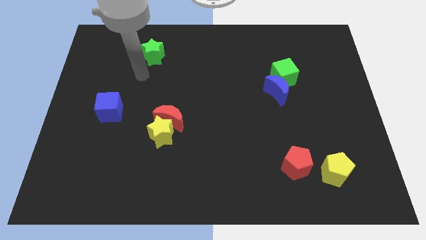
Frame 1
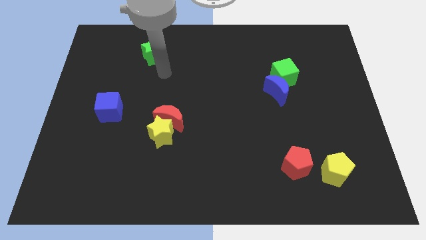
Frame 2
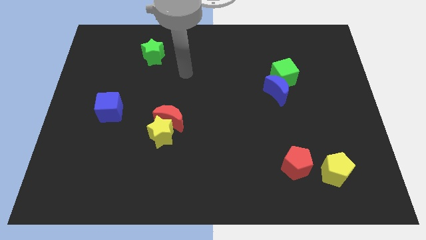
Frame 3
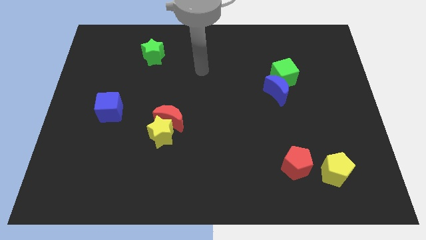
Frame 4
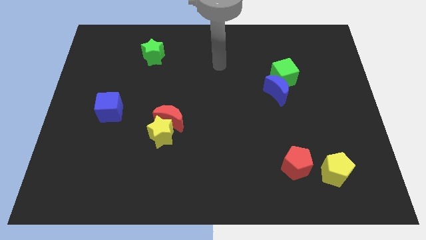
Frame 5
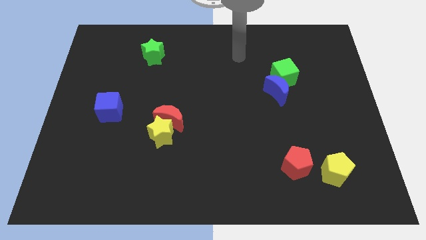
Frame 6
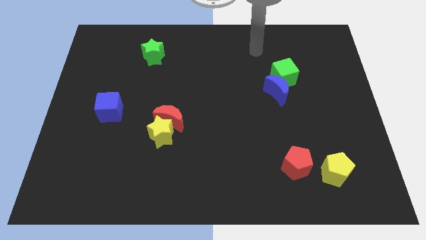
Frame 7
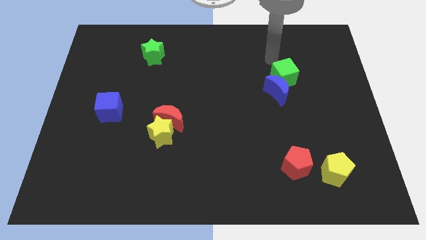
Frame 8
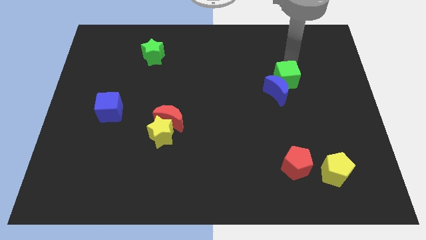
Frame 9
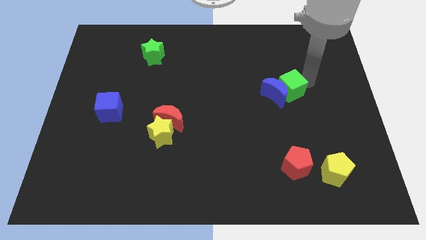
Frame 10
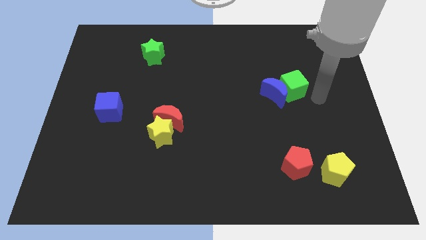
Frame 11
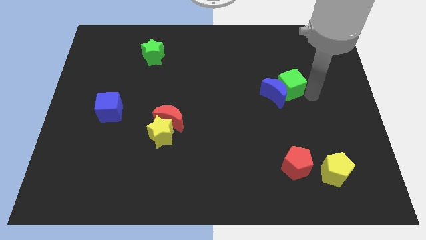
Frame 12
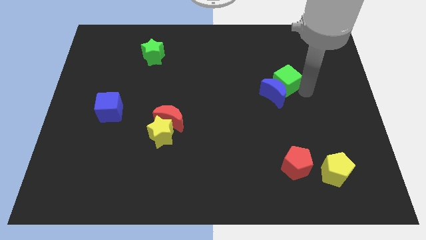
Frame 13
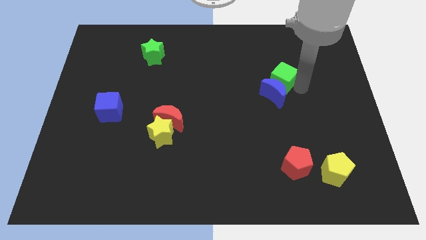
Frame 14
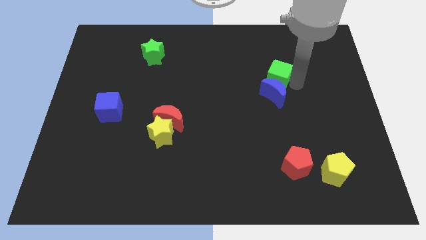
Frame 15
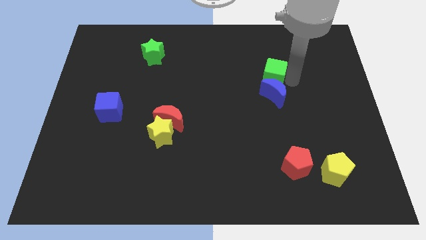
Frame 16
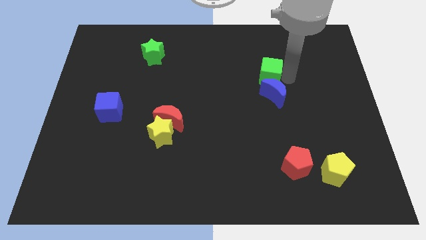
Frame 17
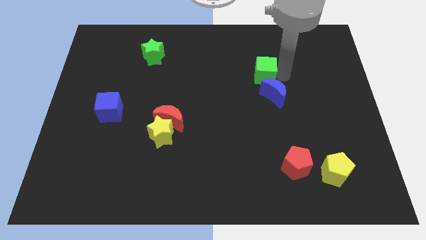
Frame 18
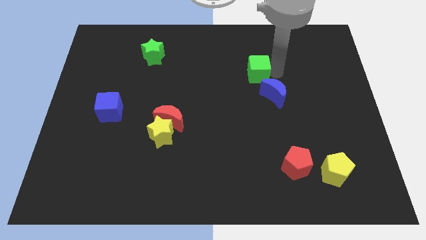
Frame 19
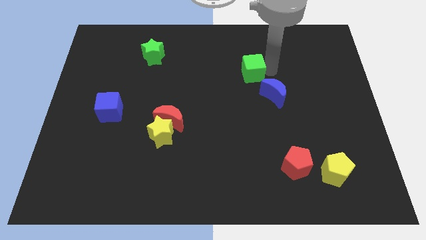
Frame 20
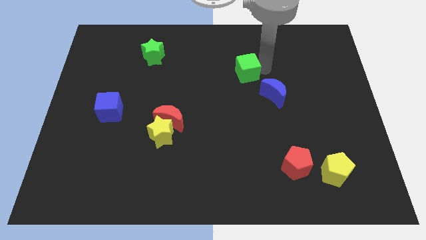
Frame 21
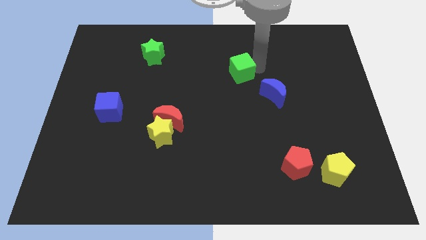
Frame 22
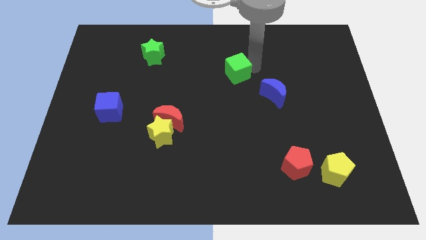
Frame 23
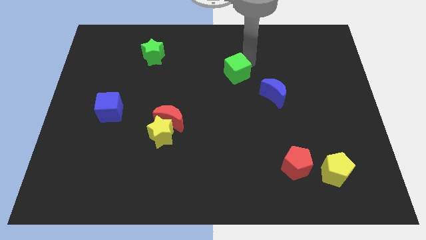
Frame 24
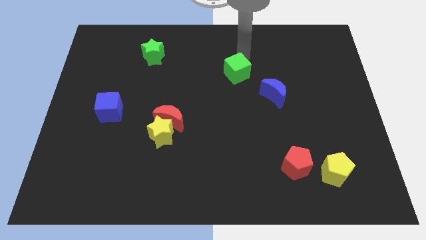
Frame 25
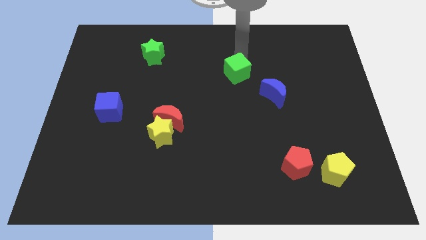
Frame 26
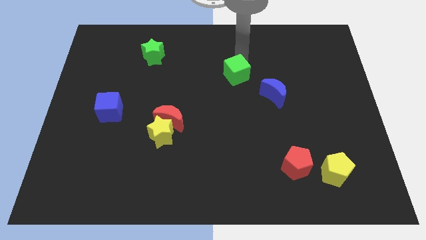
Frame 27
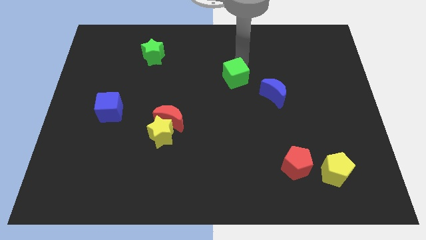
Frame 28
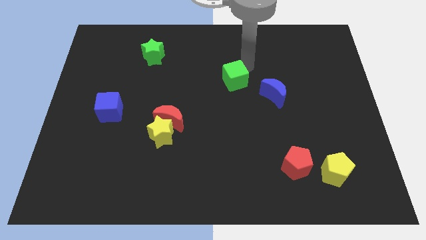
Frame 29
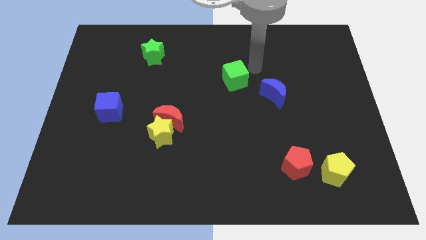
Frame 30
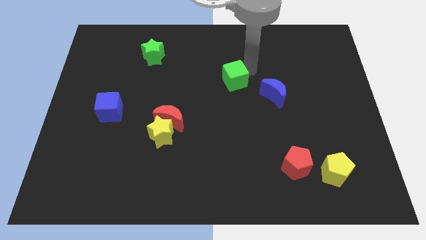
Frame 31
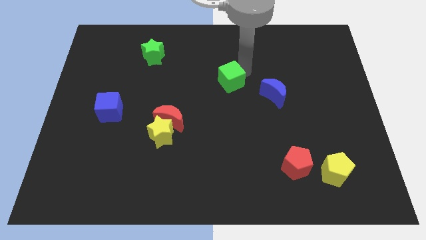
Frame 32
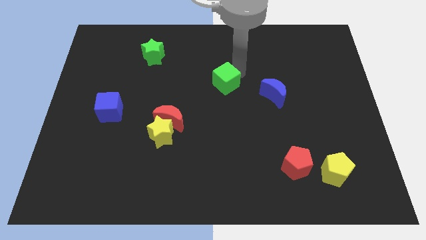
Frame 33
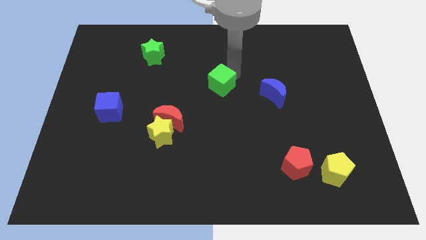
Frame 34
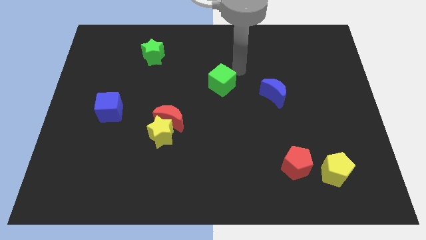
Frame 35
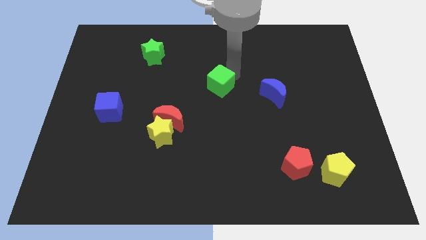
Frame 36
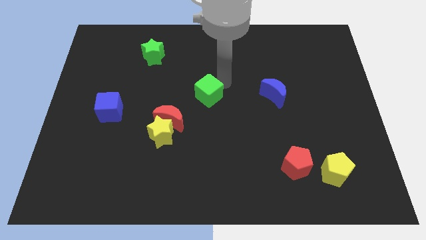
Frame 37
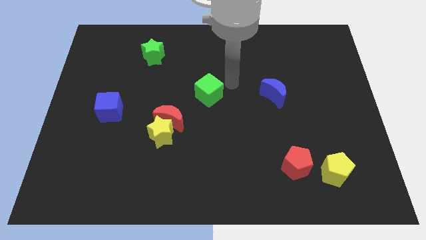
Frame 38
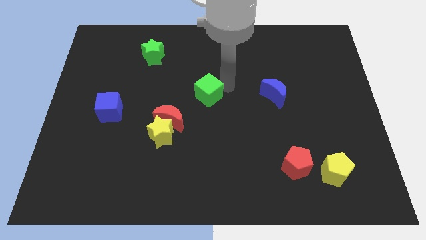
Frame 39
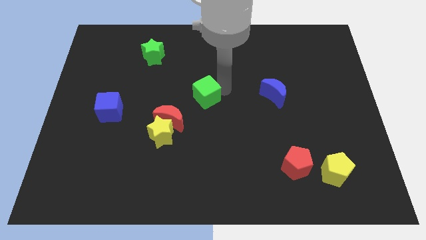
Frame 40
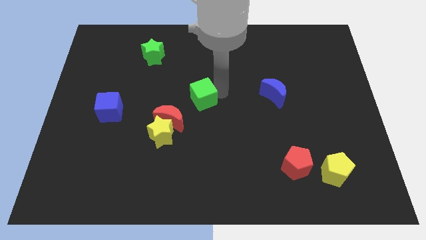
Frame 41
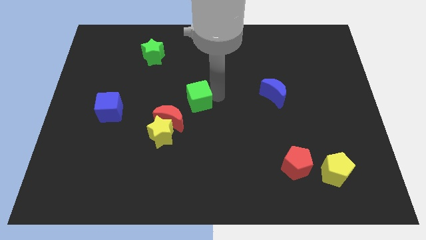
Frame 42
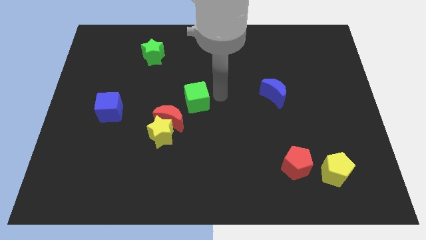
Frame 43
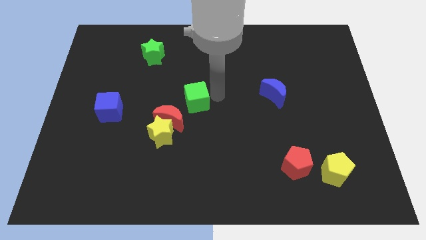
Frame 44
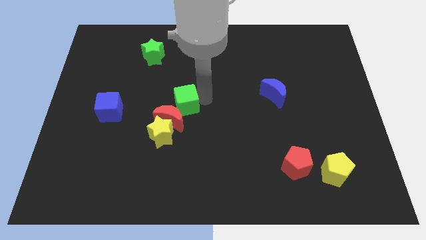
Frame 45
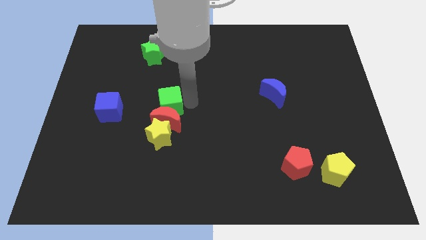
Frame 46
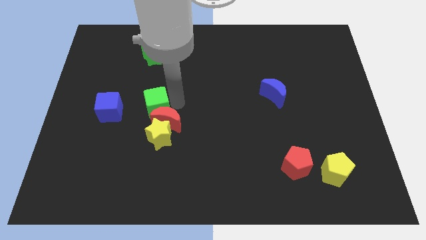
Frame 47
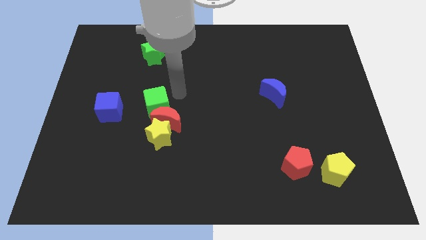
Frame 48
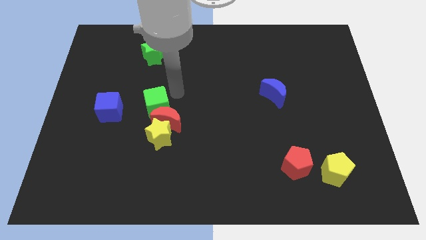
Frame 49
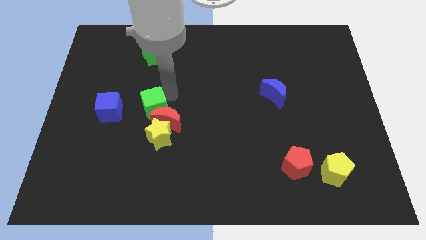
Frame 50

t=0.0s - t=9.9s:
push the green cube to the top left of the yellow star

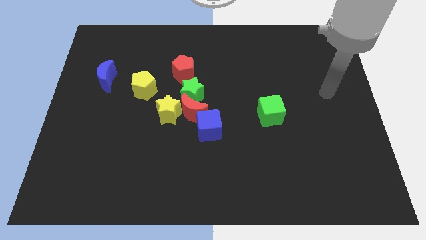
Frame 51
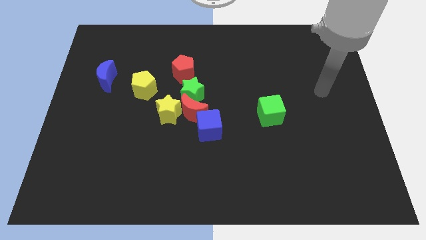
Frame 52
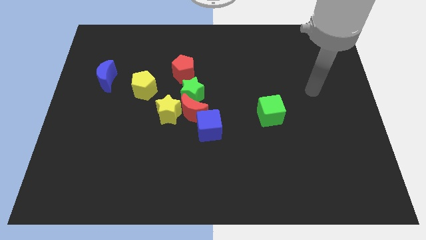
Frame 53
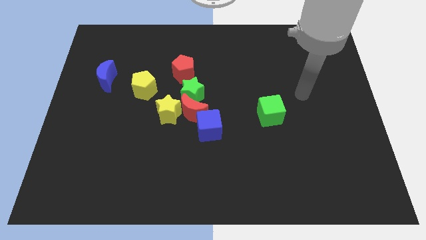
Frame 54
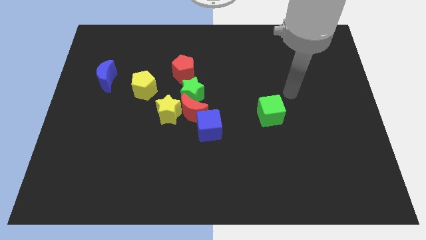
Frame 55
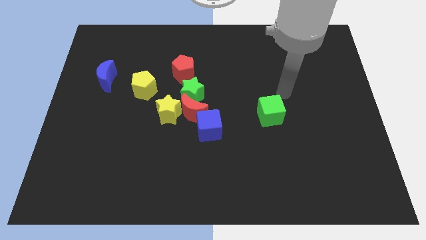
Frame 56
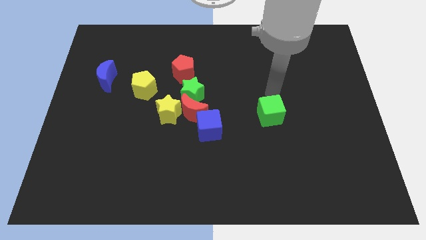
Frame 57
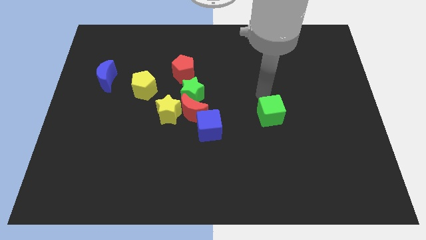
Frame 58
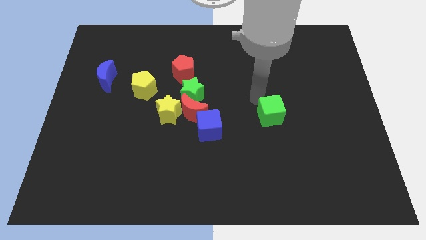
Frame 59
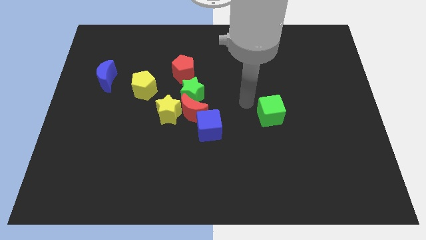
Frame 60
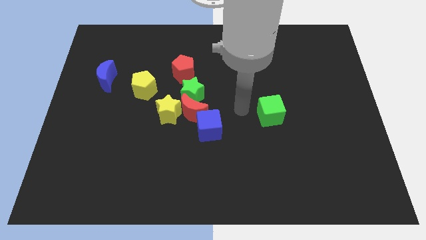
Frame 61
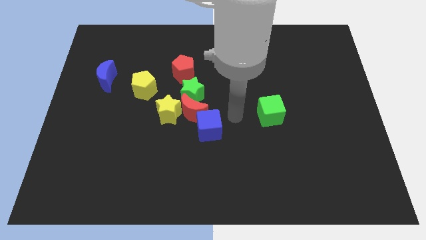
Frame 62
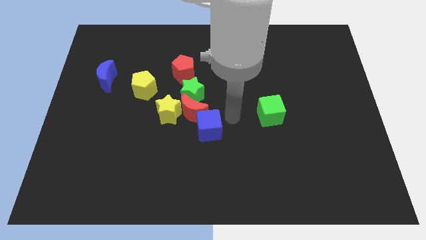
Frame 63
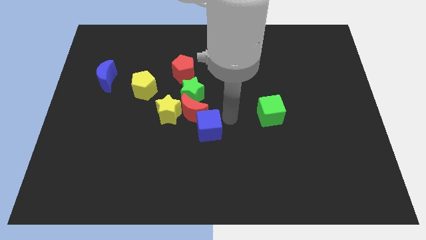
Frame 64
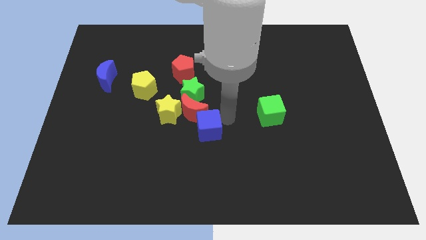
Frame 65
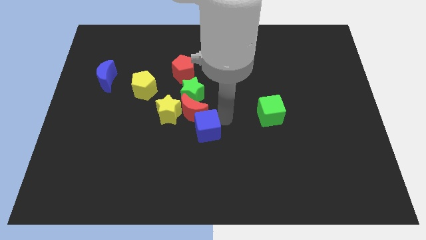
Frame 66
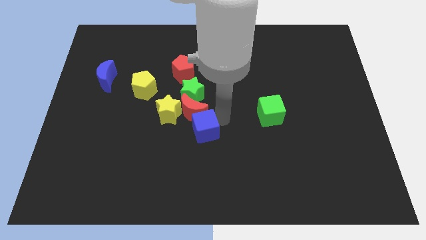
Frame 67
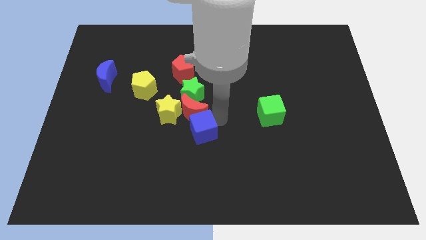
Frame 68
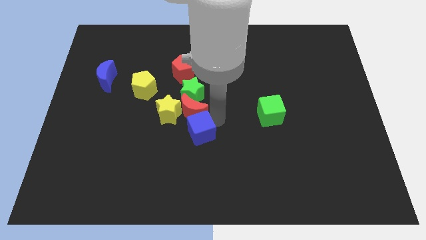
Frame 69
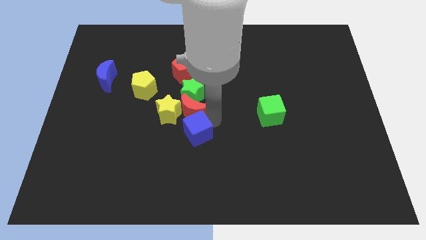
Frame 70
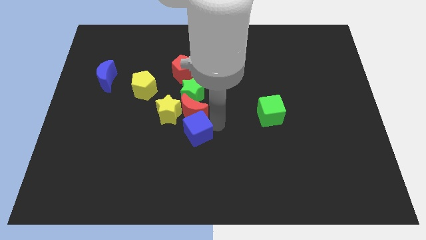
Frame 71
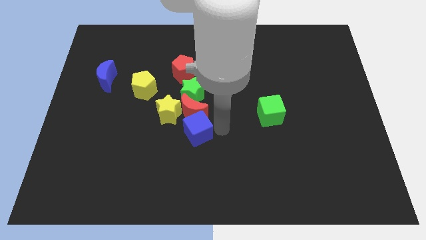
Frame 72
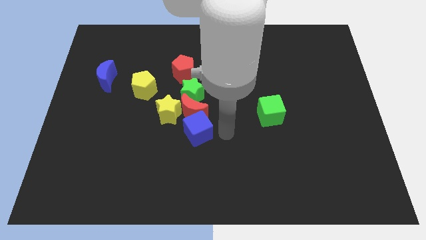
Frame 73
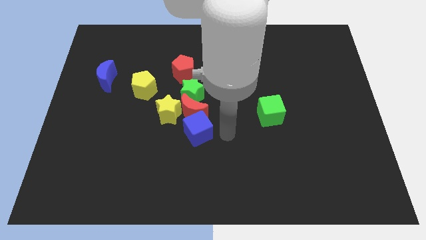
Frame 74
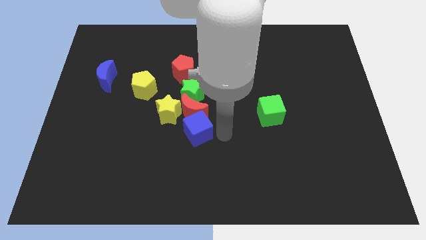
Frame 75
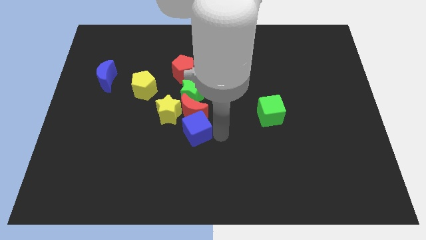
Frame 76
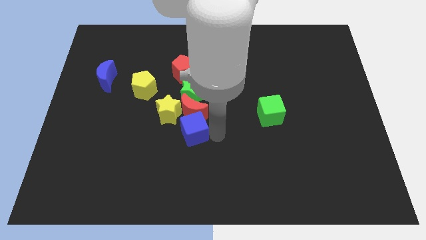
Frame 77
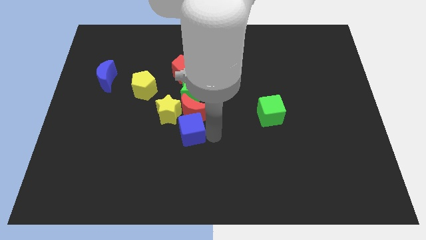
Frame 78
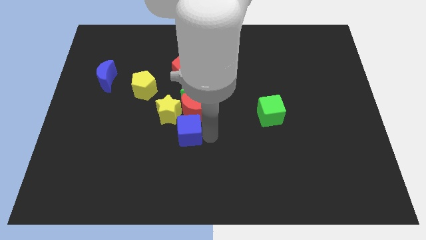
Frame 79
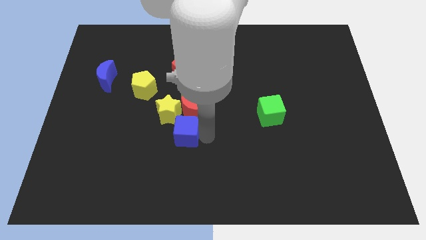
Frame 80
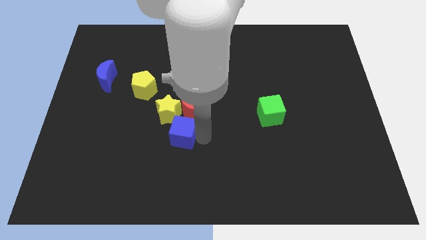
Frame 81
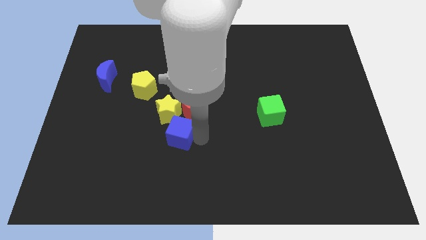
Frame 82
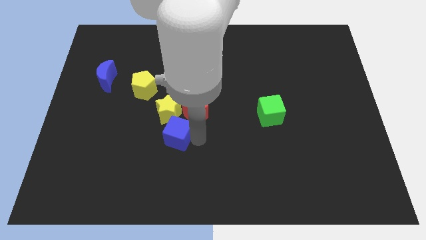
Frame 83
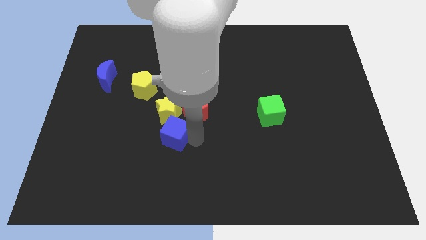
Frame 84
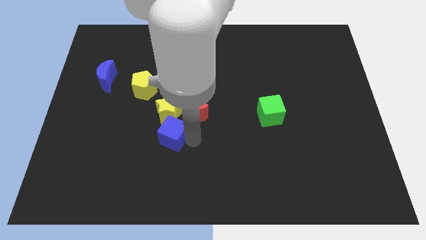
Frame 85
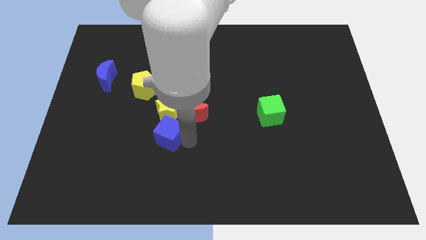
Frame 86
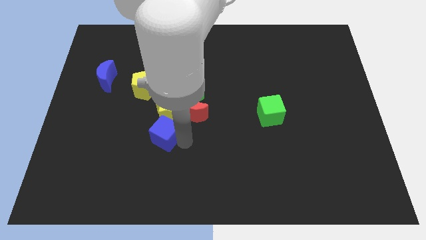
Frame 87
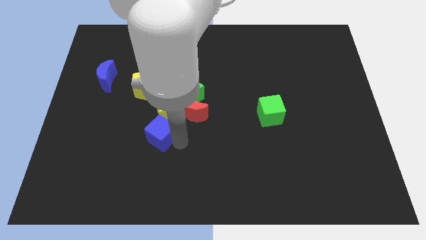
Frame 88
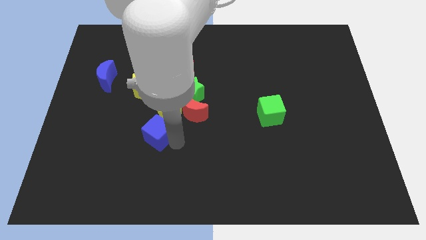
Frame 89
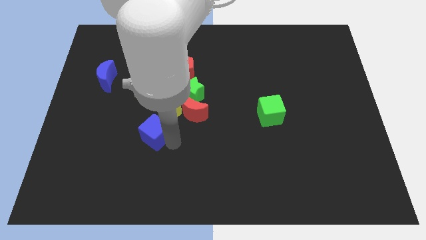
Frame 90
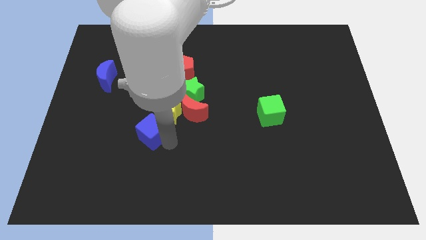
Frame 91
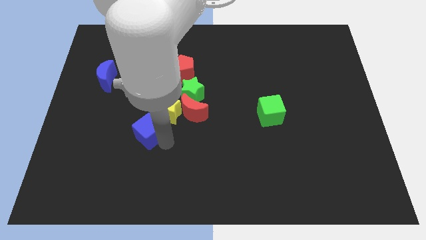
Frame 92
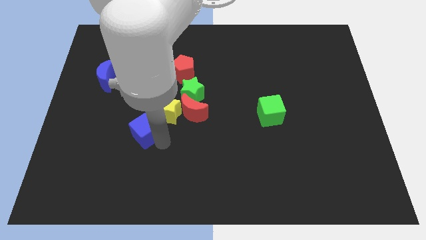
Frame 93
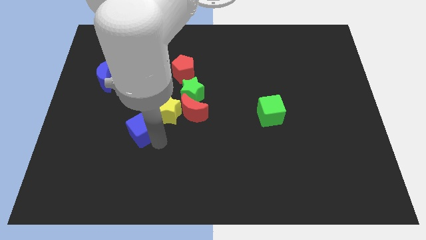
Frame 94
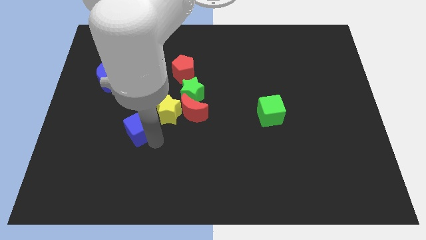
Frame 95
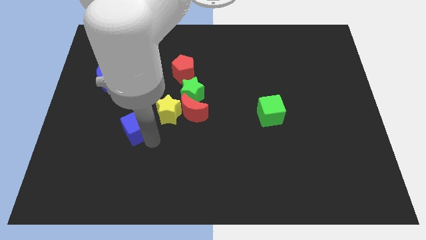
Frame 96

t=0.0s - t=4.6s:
put the blue cube left of the red moon
